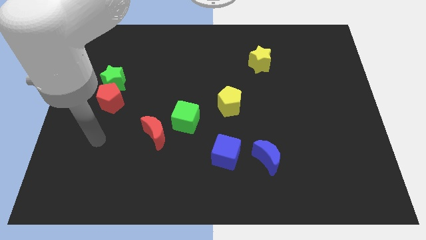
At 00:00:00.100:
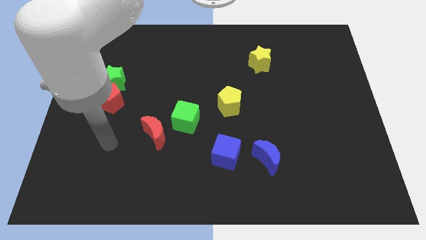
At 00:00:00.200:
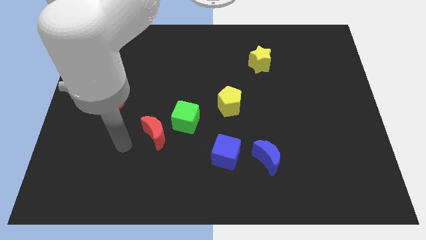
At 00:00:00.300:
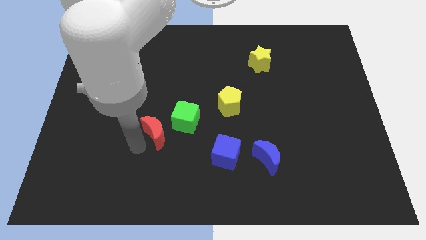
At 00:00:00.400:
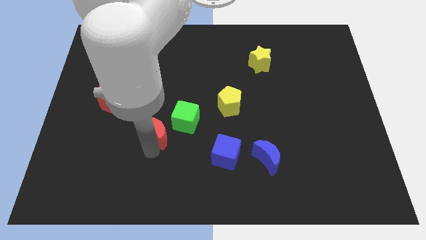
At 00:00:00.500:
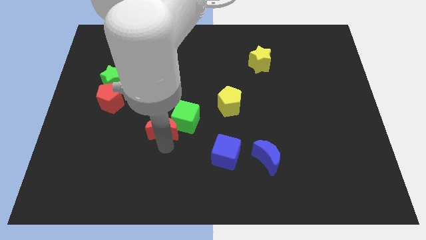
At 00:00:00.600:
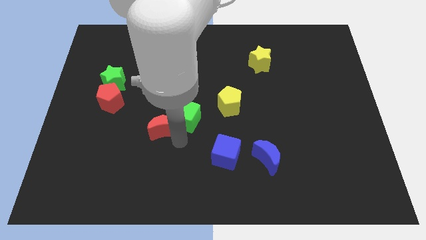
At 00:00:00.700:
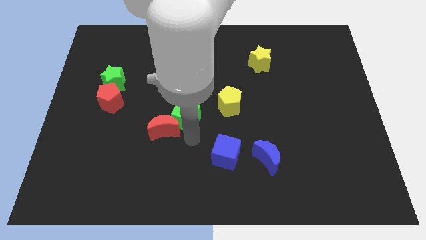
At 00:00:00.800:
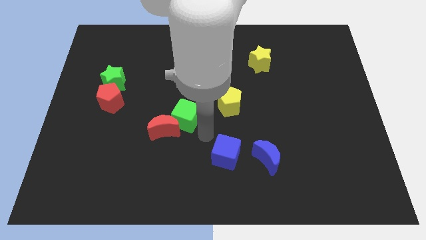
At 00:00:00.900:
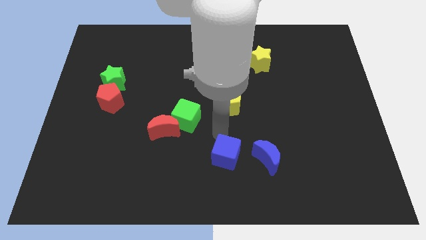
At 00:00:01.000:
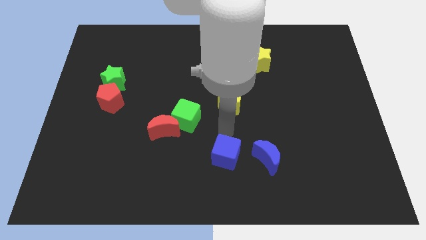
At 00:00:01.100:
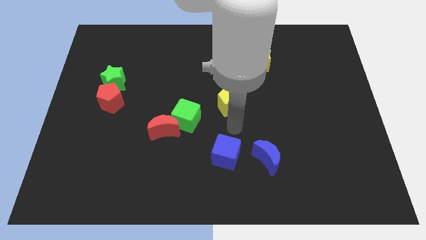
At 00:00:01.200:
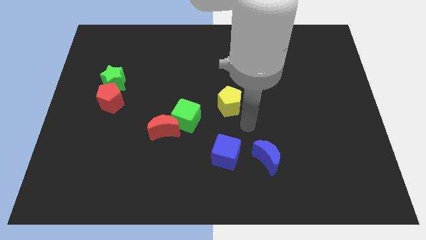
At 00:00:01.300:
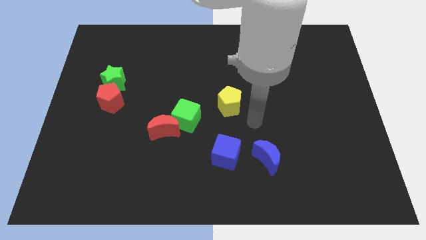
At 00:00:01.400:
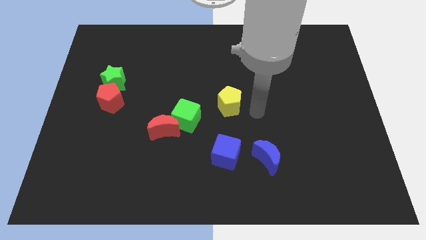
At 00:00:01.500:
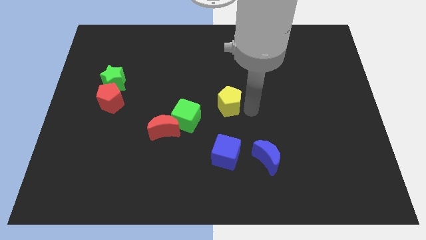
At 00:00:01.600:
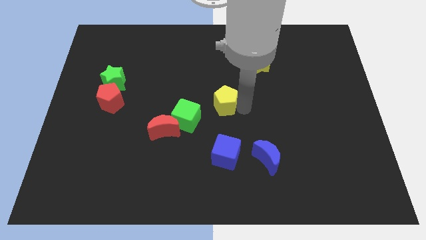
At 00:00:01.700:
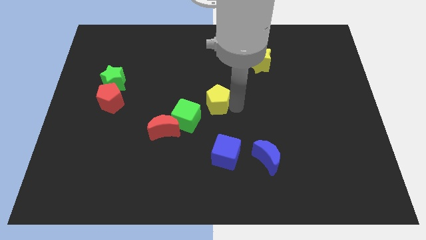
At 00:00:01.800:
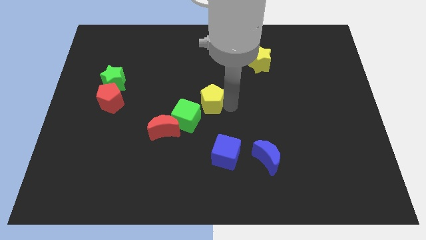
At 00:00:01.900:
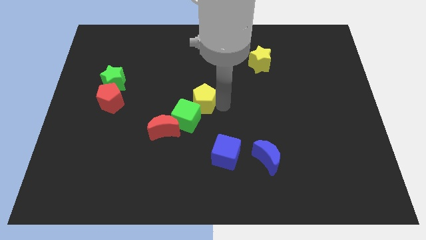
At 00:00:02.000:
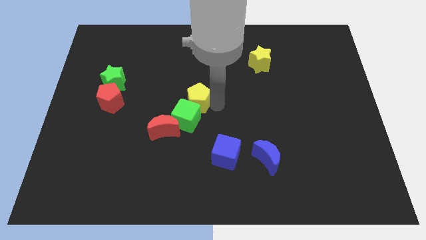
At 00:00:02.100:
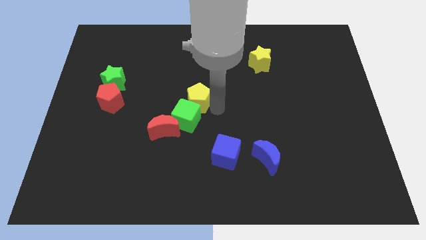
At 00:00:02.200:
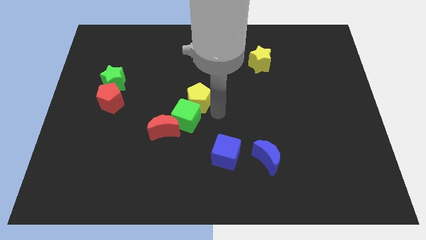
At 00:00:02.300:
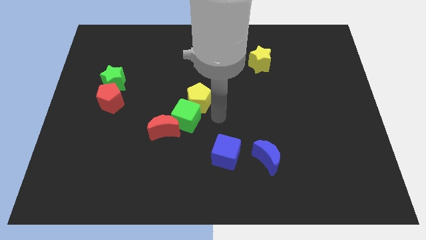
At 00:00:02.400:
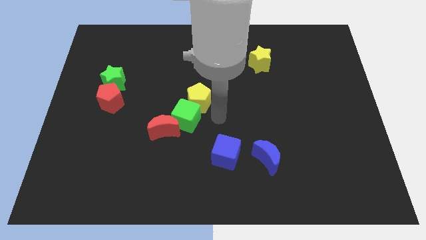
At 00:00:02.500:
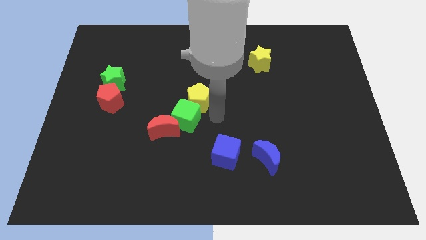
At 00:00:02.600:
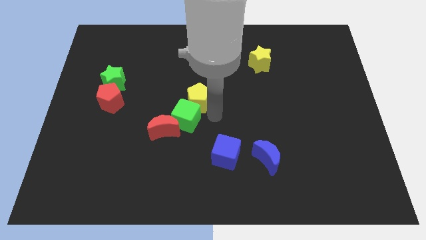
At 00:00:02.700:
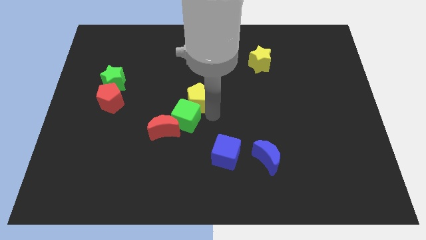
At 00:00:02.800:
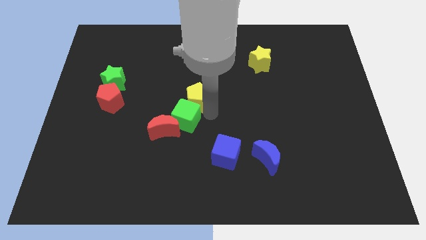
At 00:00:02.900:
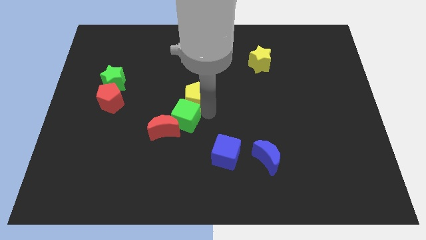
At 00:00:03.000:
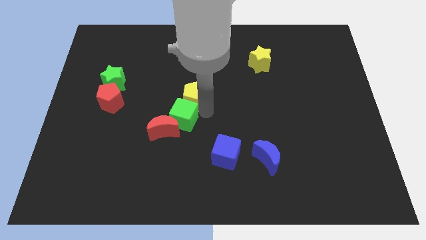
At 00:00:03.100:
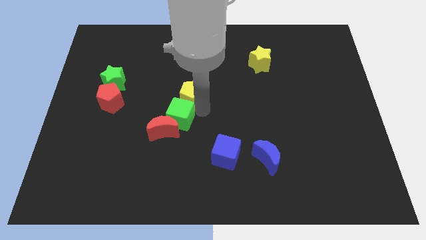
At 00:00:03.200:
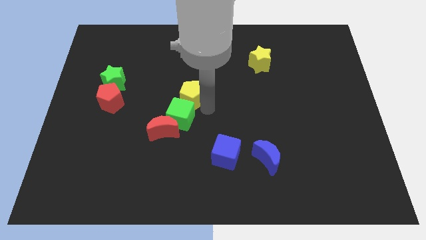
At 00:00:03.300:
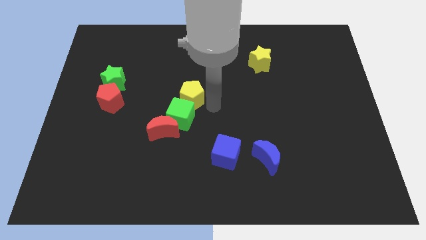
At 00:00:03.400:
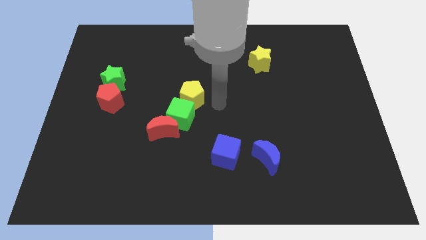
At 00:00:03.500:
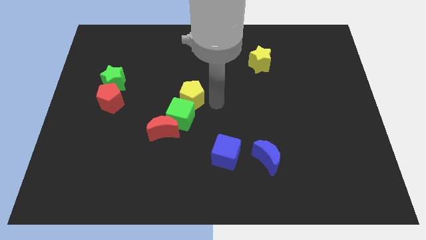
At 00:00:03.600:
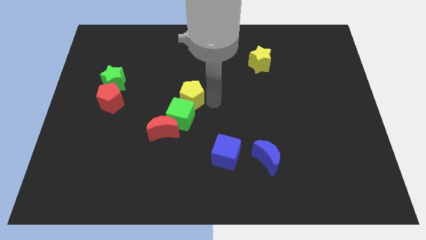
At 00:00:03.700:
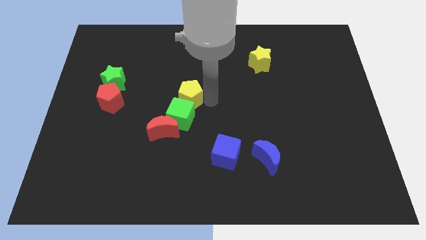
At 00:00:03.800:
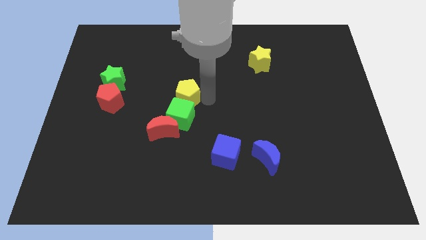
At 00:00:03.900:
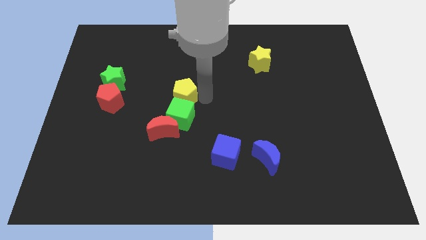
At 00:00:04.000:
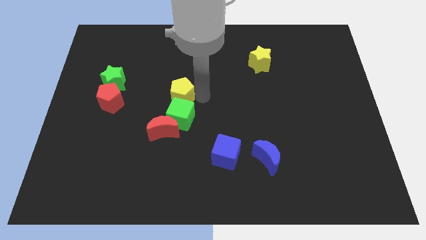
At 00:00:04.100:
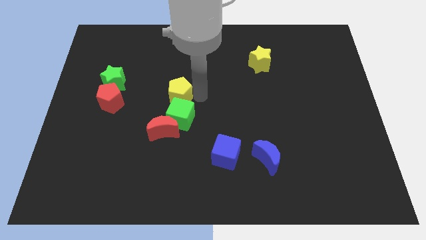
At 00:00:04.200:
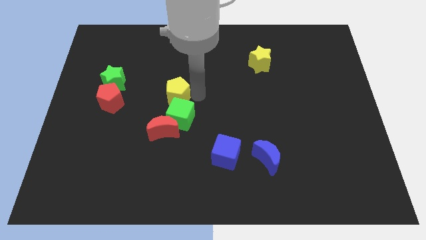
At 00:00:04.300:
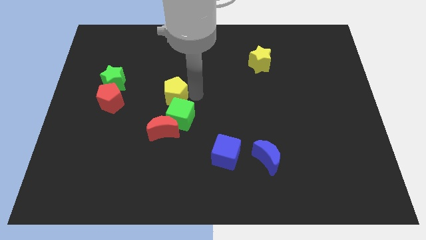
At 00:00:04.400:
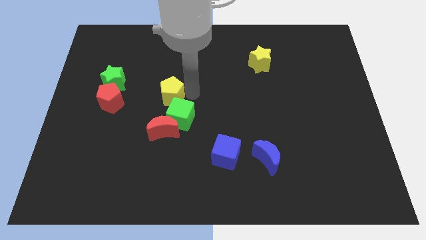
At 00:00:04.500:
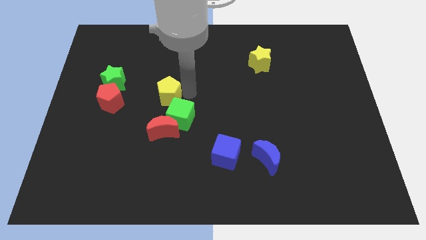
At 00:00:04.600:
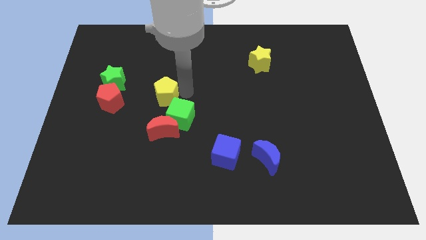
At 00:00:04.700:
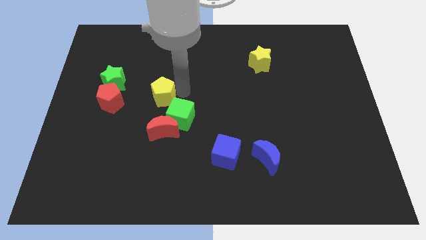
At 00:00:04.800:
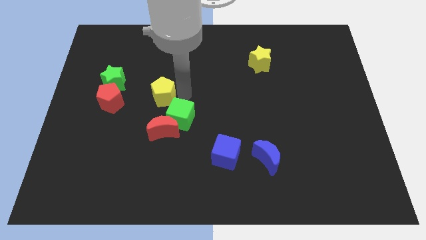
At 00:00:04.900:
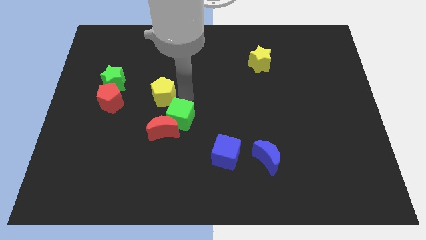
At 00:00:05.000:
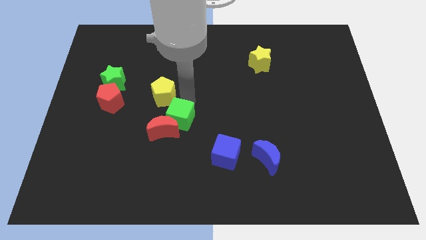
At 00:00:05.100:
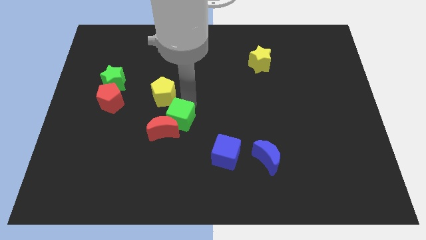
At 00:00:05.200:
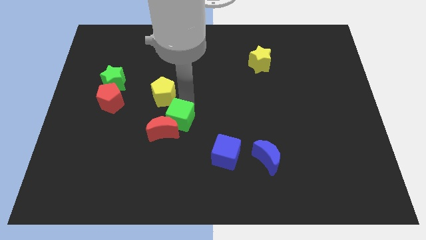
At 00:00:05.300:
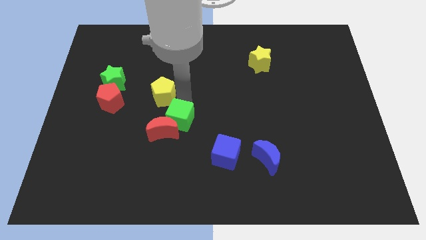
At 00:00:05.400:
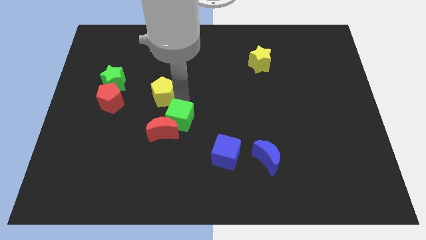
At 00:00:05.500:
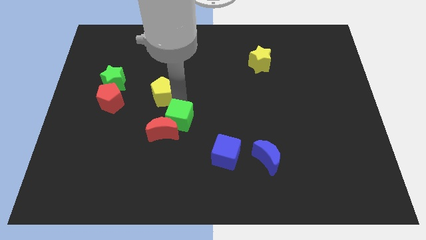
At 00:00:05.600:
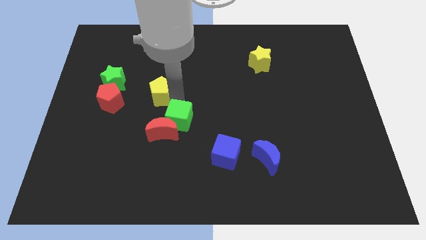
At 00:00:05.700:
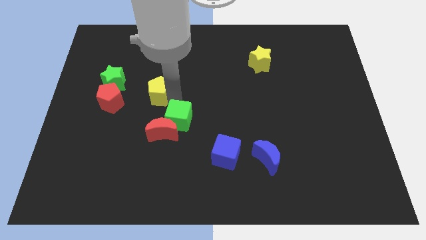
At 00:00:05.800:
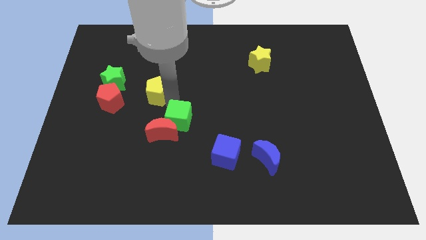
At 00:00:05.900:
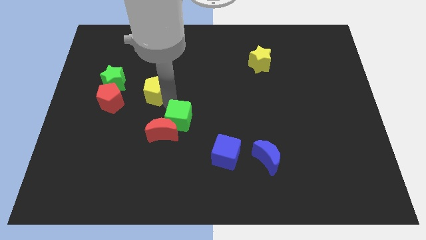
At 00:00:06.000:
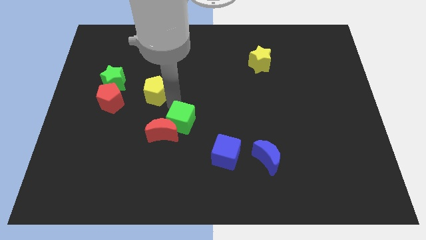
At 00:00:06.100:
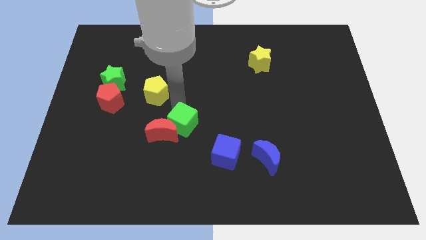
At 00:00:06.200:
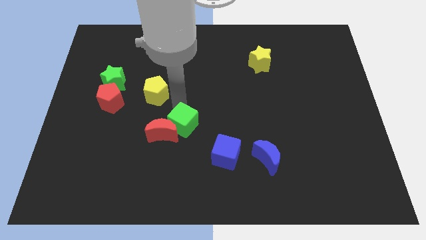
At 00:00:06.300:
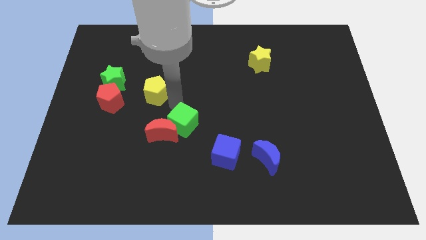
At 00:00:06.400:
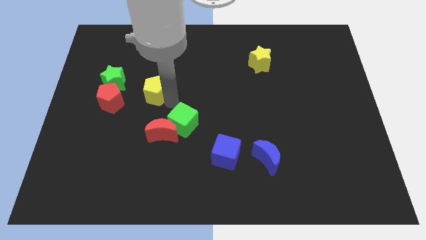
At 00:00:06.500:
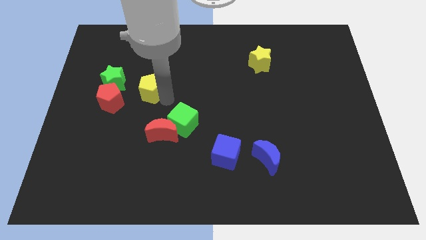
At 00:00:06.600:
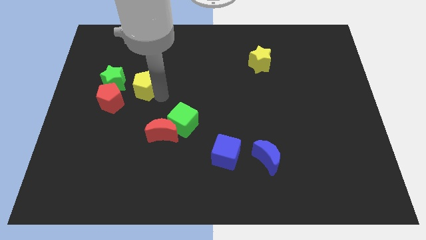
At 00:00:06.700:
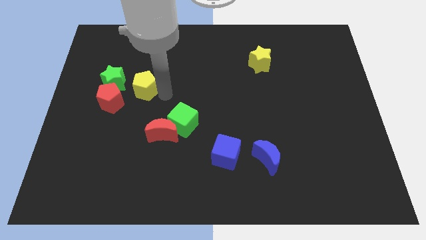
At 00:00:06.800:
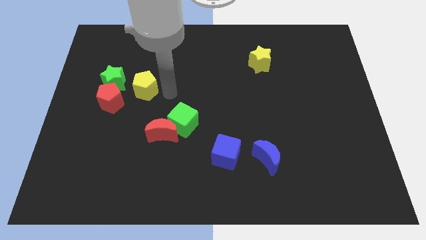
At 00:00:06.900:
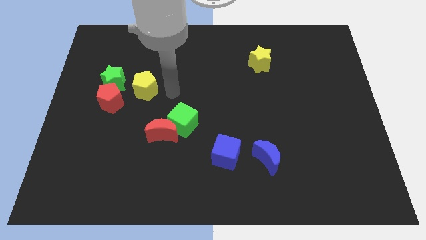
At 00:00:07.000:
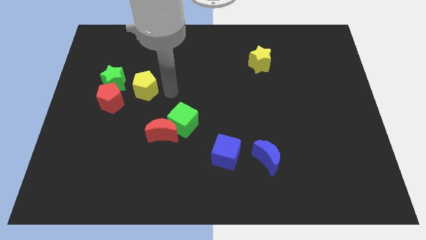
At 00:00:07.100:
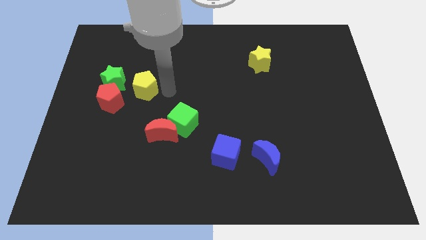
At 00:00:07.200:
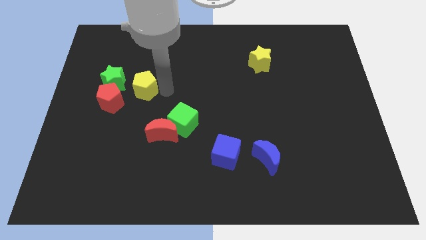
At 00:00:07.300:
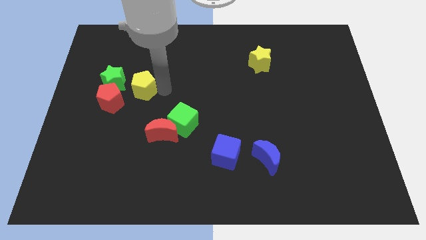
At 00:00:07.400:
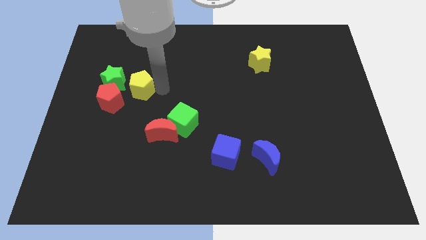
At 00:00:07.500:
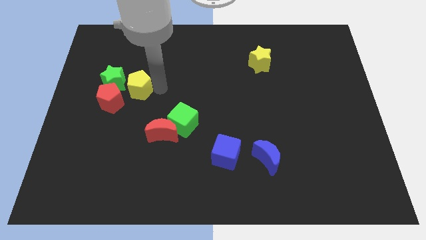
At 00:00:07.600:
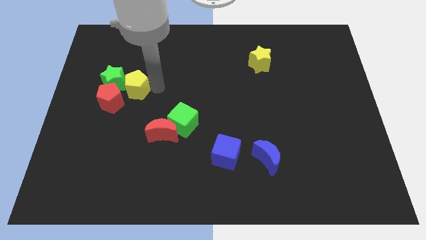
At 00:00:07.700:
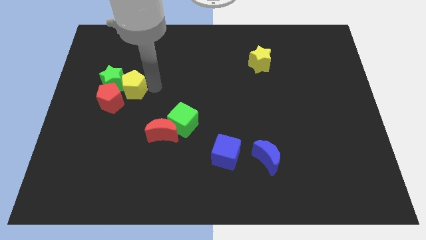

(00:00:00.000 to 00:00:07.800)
put the yellow pentagon next to the green star
